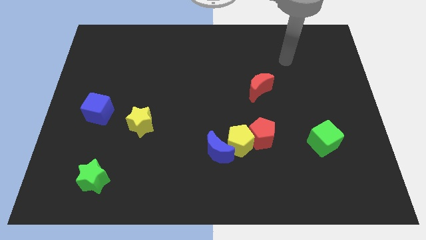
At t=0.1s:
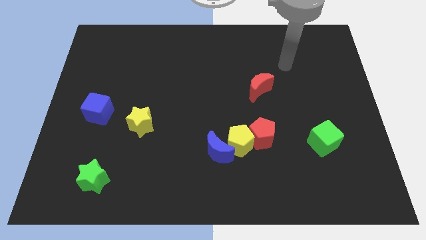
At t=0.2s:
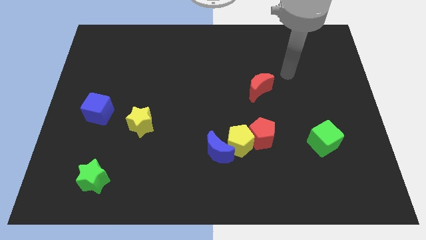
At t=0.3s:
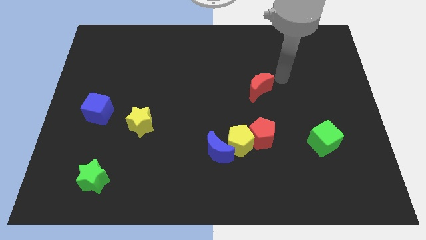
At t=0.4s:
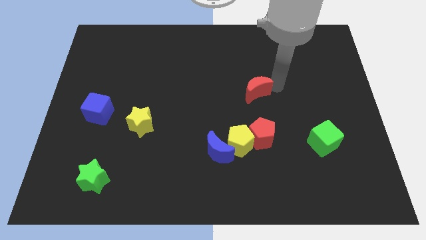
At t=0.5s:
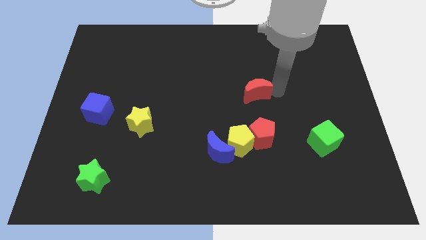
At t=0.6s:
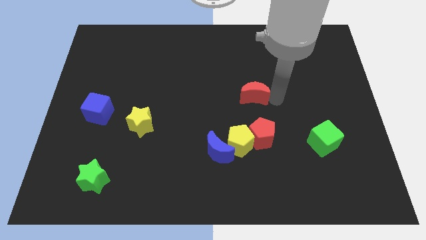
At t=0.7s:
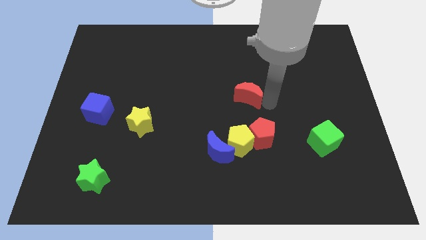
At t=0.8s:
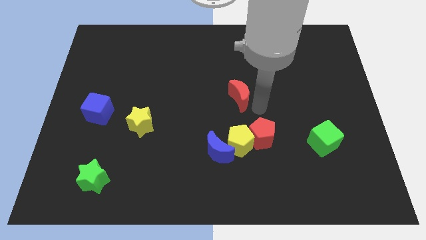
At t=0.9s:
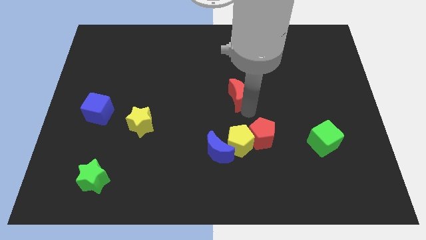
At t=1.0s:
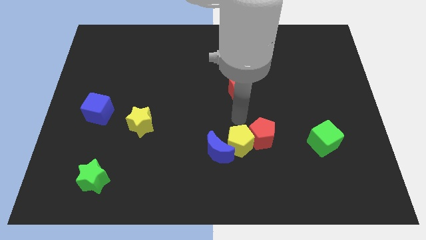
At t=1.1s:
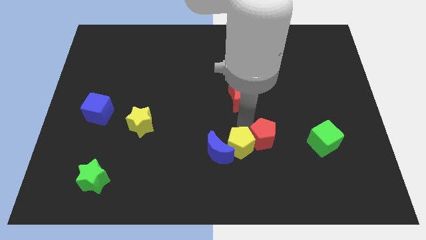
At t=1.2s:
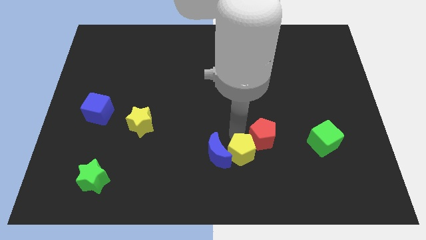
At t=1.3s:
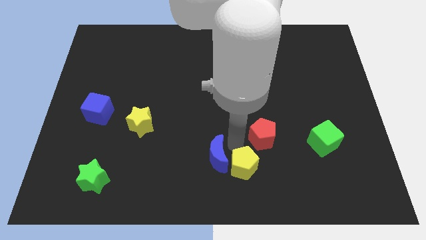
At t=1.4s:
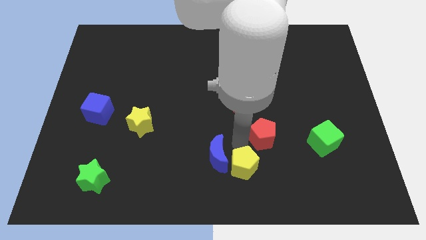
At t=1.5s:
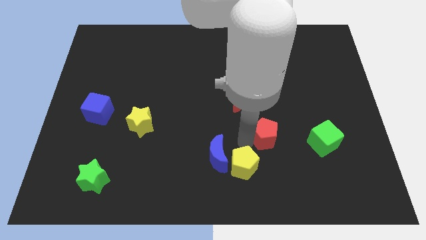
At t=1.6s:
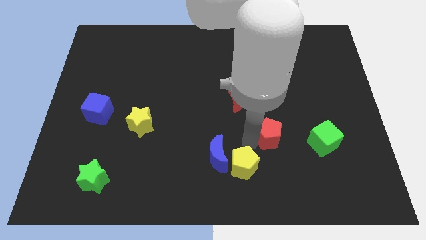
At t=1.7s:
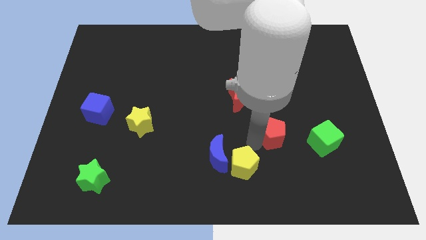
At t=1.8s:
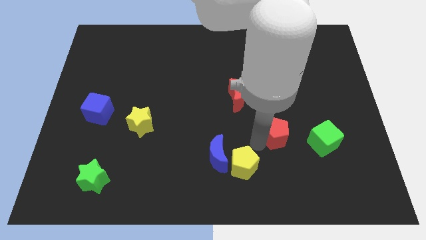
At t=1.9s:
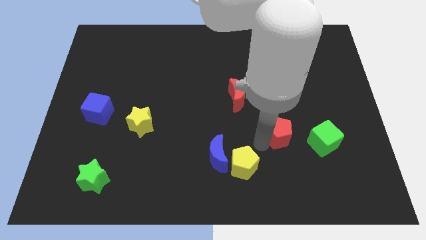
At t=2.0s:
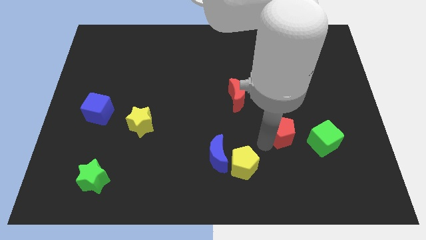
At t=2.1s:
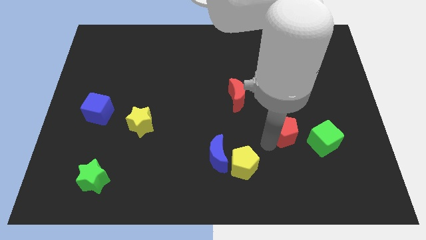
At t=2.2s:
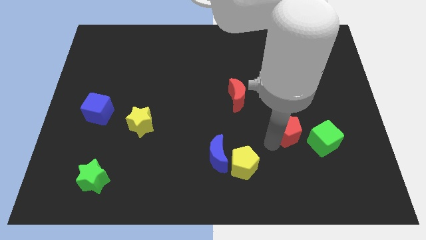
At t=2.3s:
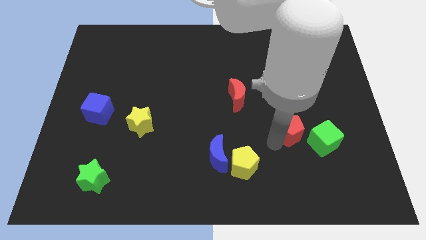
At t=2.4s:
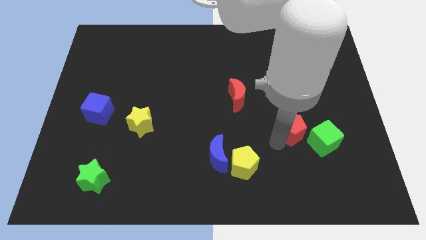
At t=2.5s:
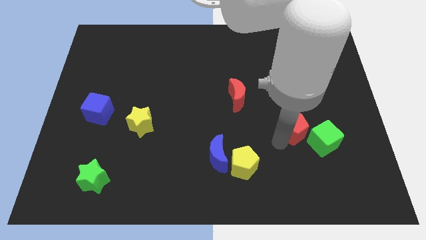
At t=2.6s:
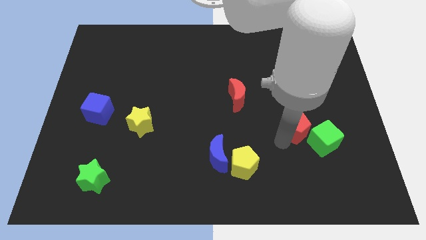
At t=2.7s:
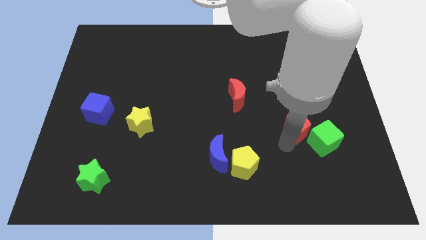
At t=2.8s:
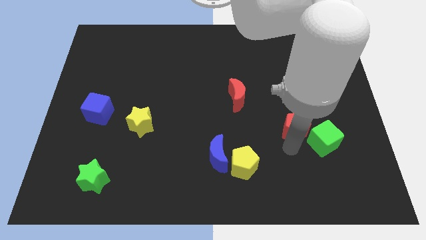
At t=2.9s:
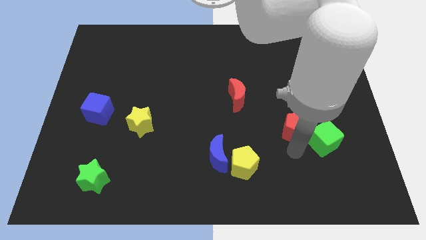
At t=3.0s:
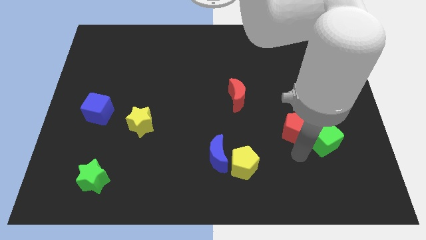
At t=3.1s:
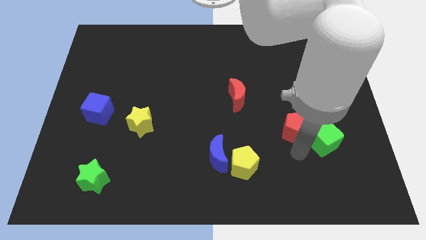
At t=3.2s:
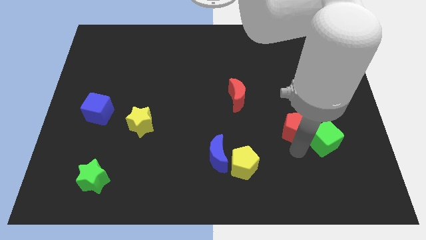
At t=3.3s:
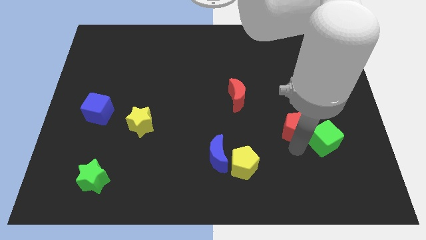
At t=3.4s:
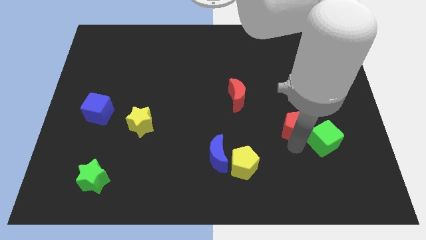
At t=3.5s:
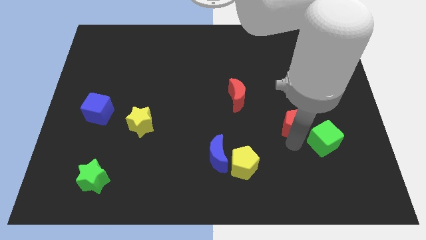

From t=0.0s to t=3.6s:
move the red pentagon diagonally upwards and to the right a little bit

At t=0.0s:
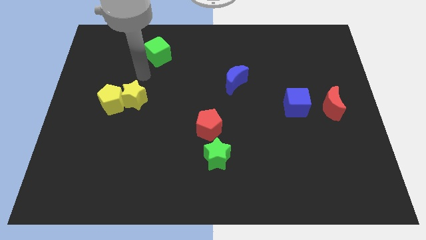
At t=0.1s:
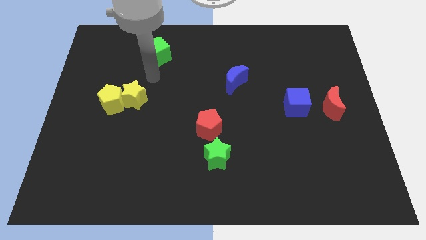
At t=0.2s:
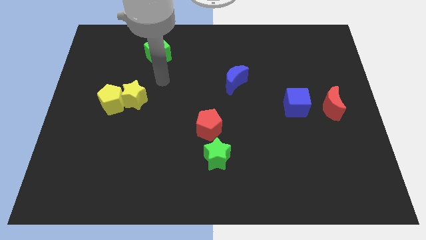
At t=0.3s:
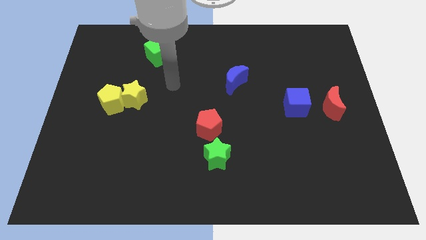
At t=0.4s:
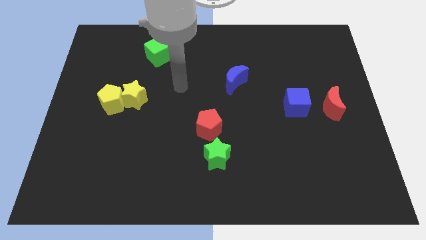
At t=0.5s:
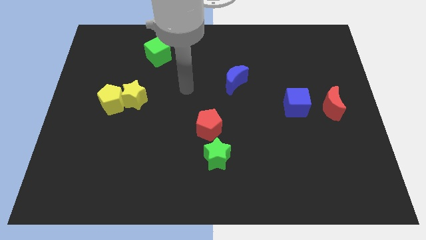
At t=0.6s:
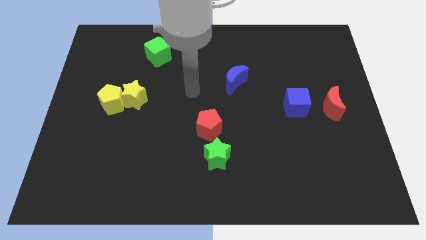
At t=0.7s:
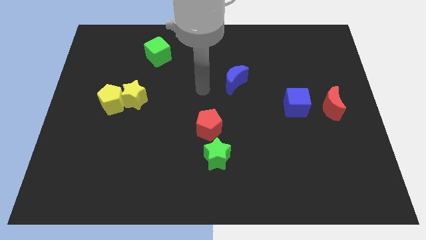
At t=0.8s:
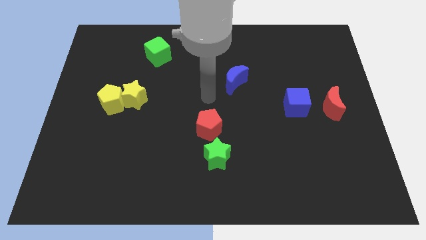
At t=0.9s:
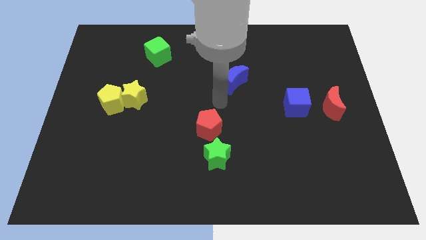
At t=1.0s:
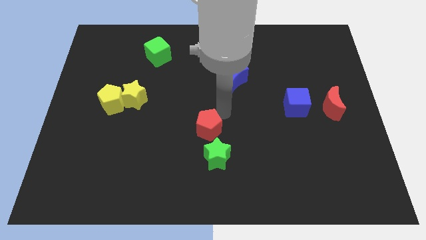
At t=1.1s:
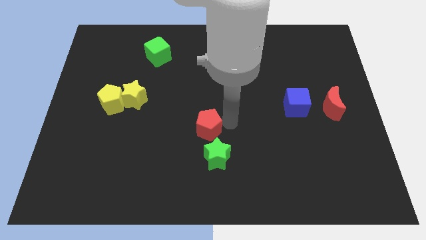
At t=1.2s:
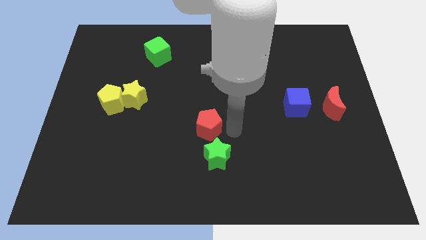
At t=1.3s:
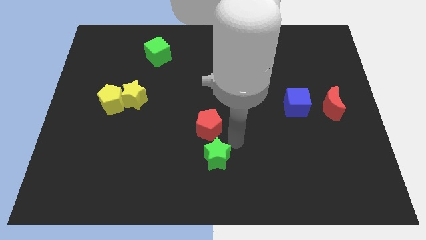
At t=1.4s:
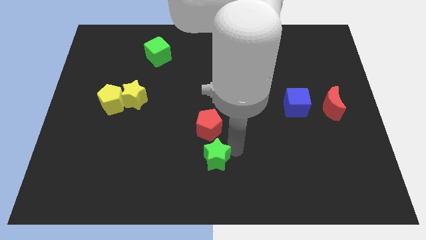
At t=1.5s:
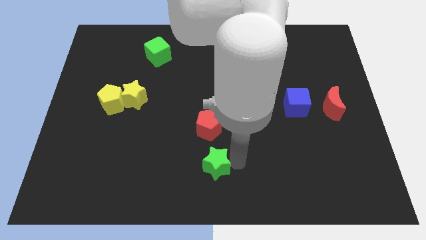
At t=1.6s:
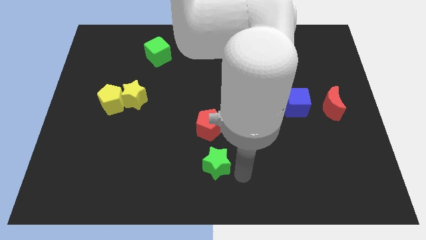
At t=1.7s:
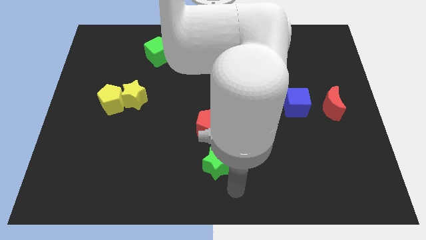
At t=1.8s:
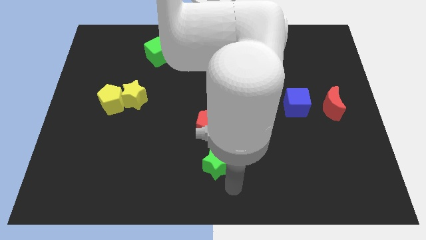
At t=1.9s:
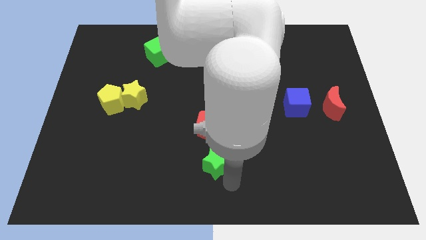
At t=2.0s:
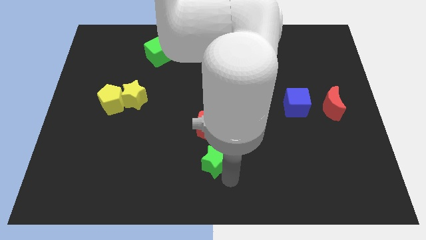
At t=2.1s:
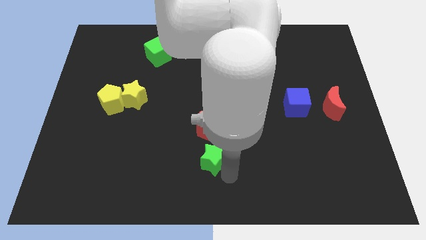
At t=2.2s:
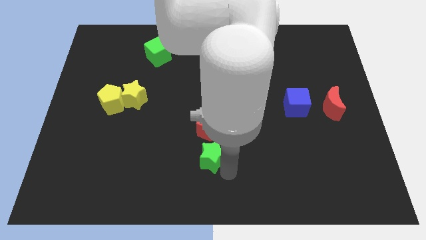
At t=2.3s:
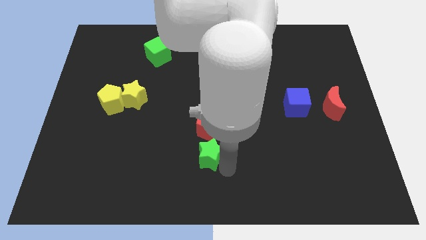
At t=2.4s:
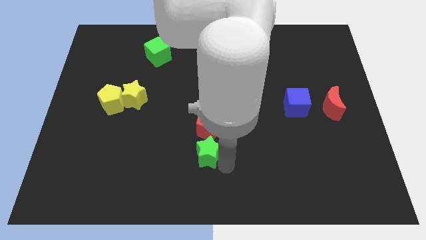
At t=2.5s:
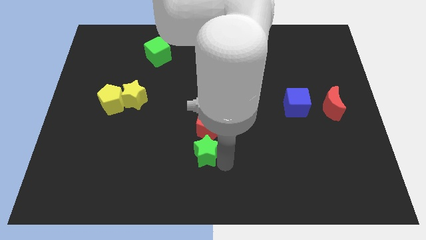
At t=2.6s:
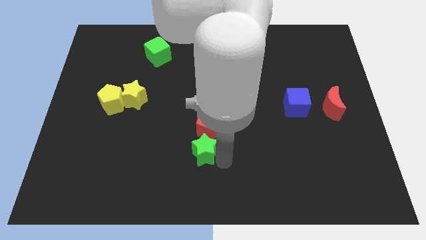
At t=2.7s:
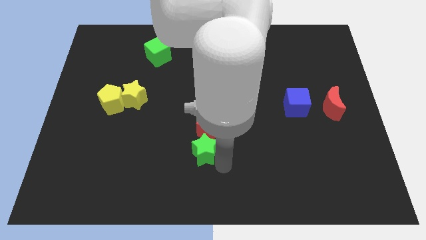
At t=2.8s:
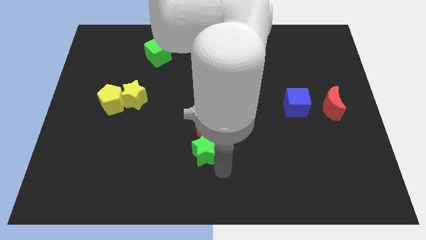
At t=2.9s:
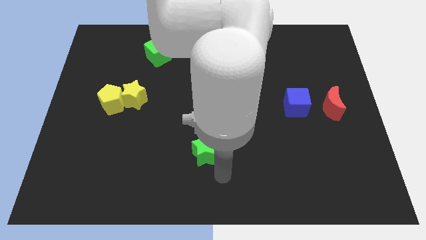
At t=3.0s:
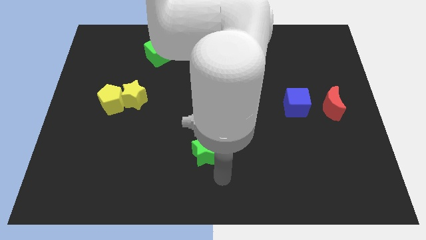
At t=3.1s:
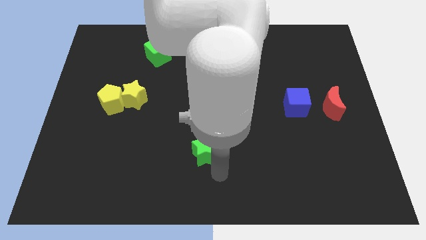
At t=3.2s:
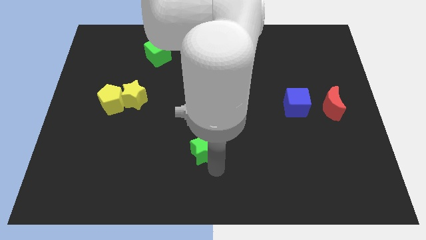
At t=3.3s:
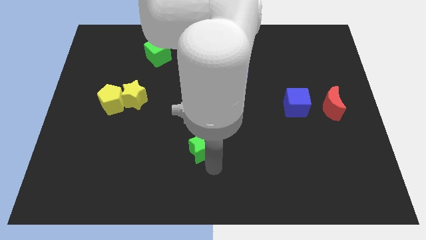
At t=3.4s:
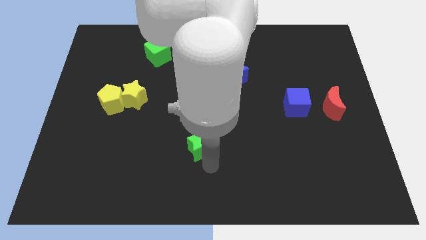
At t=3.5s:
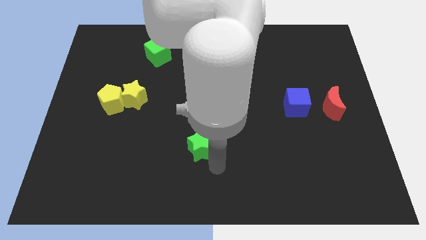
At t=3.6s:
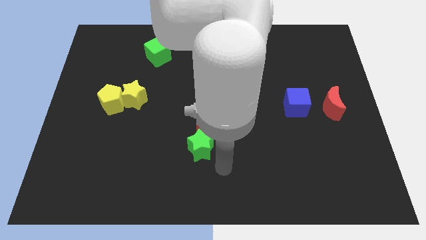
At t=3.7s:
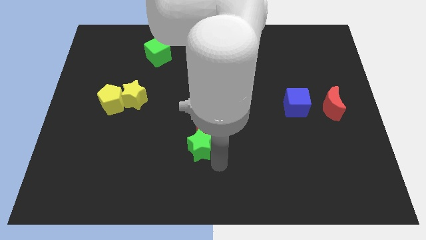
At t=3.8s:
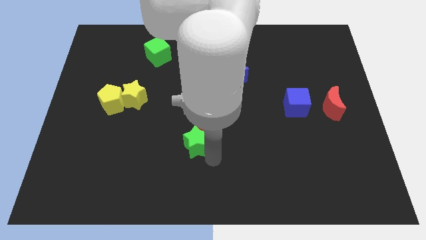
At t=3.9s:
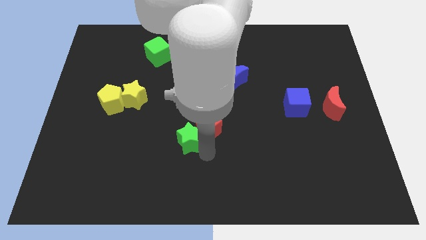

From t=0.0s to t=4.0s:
slide the green star up and to the left diagonally a little bit

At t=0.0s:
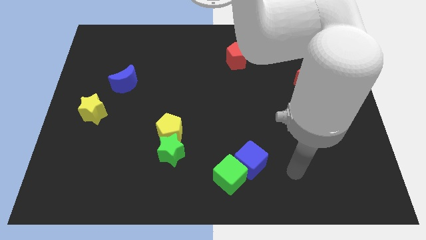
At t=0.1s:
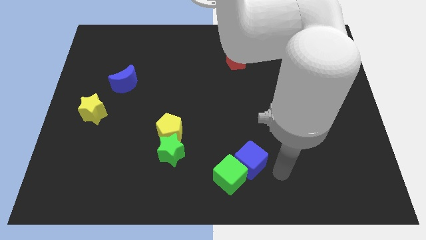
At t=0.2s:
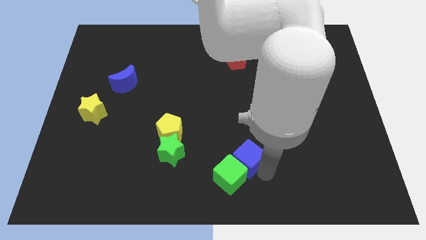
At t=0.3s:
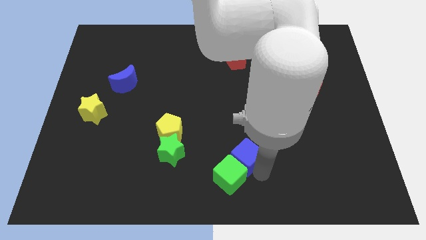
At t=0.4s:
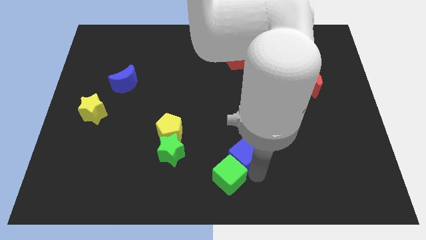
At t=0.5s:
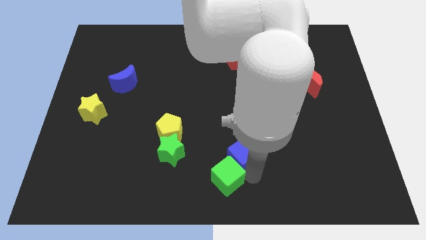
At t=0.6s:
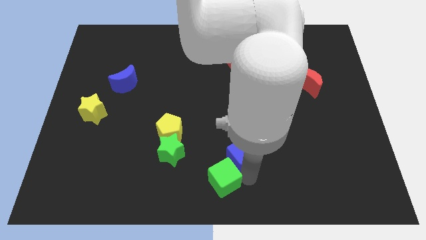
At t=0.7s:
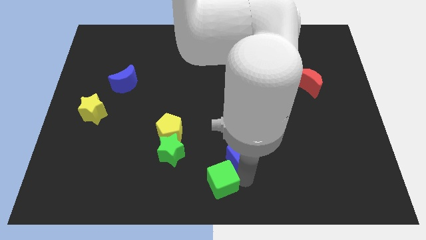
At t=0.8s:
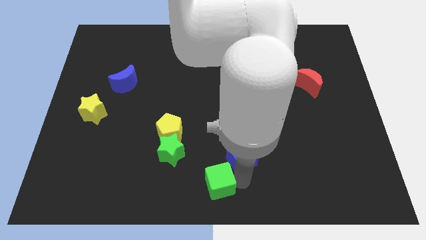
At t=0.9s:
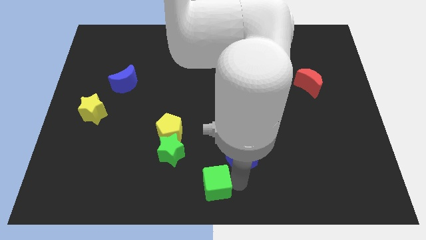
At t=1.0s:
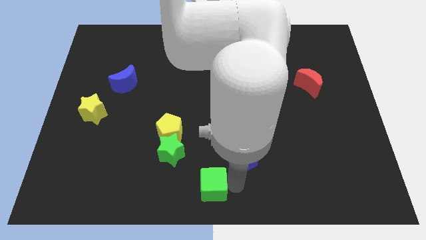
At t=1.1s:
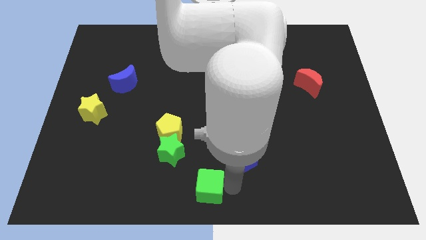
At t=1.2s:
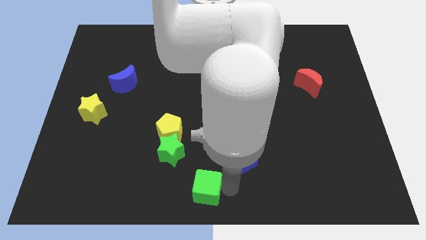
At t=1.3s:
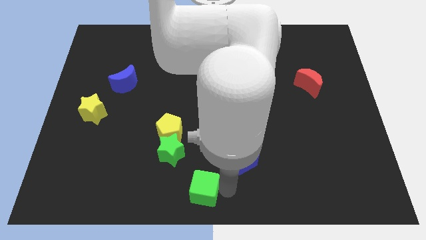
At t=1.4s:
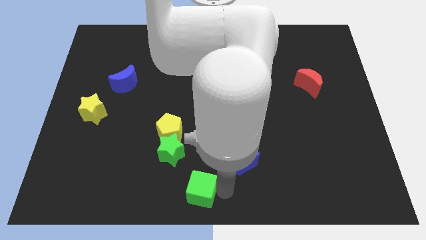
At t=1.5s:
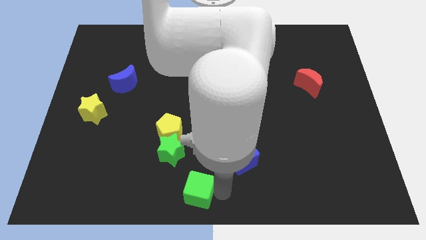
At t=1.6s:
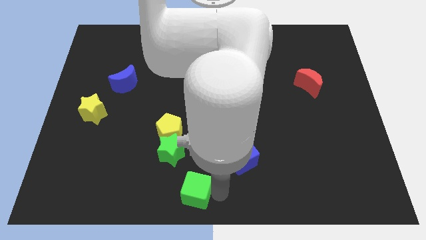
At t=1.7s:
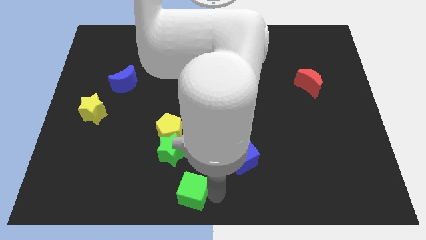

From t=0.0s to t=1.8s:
push the green cube somewhat to the left
